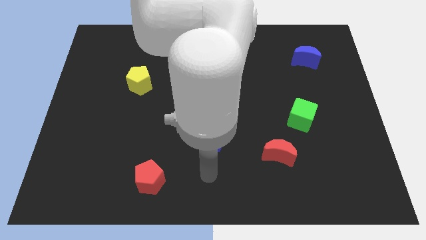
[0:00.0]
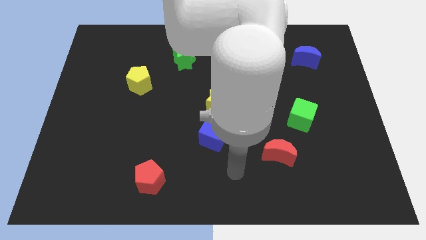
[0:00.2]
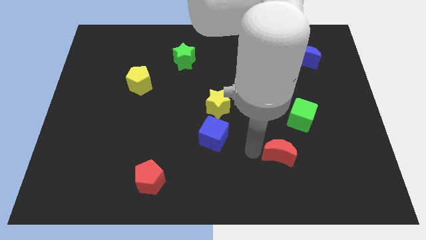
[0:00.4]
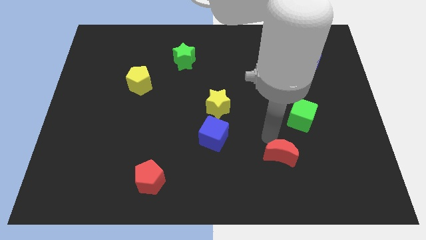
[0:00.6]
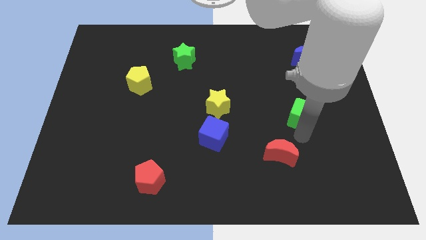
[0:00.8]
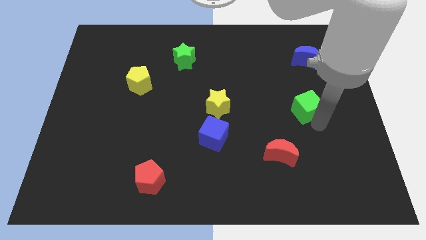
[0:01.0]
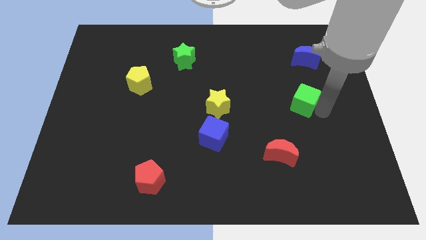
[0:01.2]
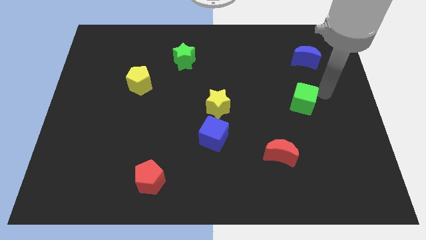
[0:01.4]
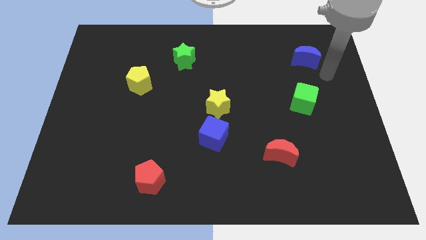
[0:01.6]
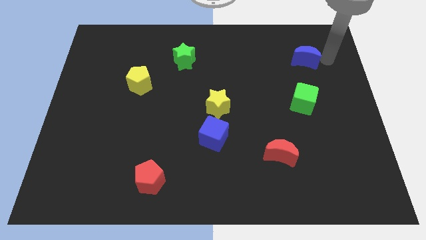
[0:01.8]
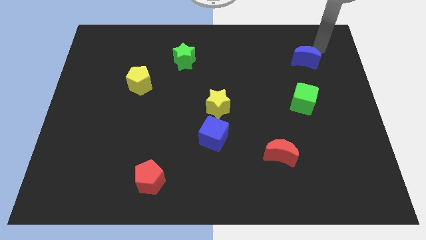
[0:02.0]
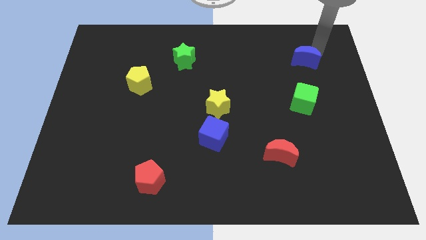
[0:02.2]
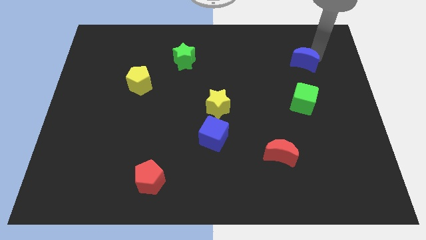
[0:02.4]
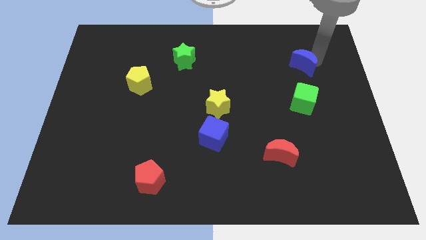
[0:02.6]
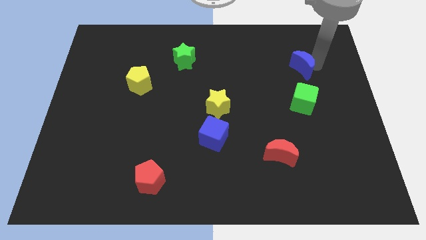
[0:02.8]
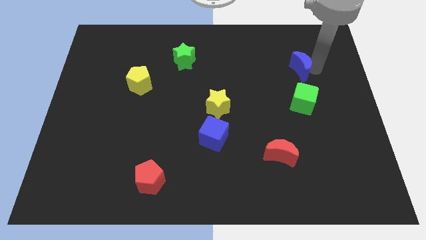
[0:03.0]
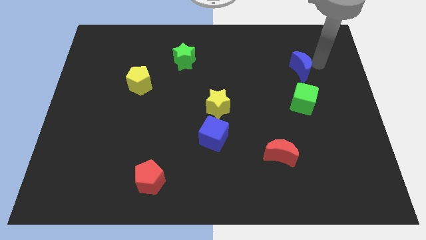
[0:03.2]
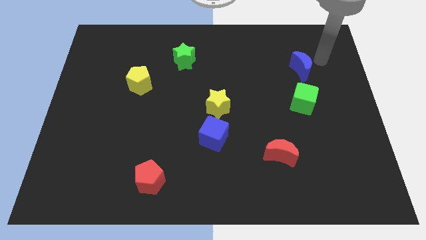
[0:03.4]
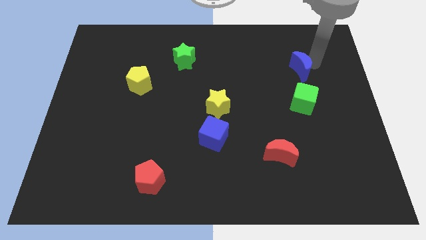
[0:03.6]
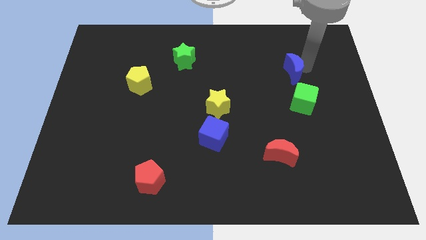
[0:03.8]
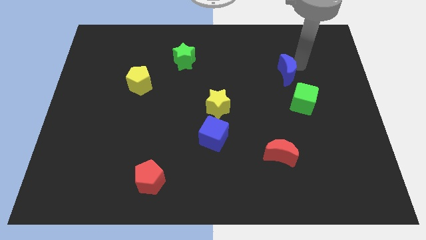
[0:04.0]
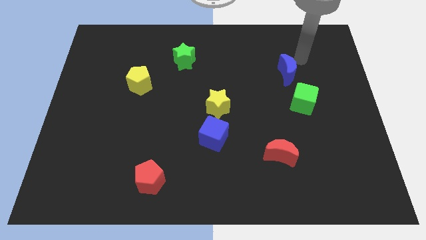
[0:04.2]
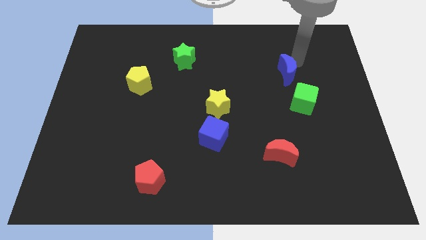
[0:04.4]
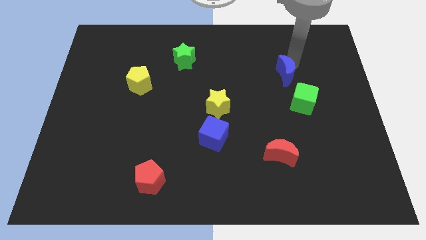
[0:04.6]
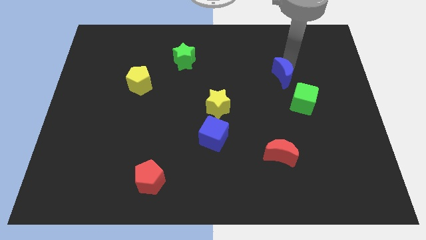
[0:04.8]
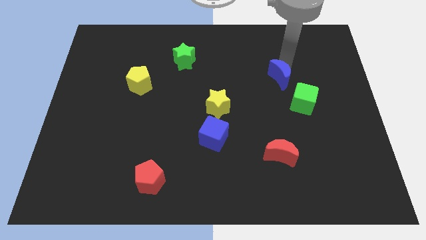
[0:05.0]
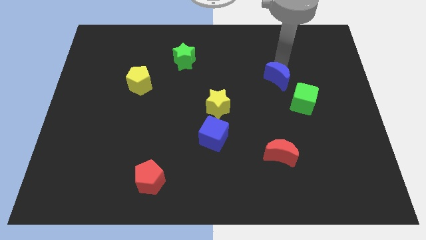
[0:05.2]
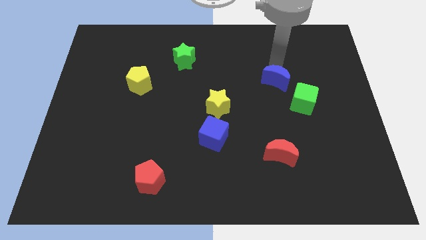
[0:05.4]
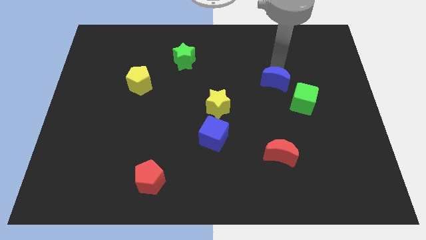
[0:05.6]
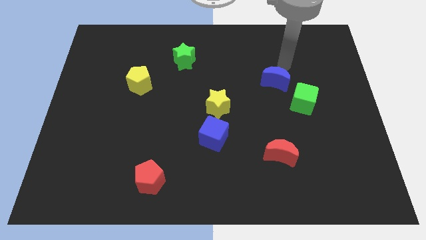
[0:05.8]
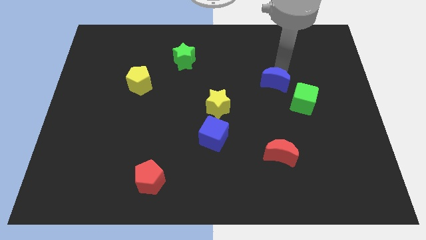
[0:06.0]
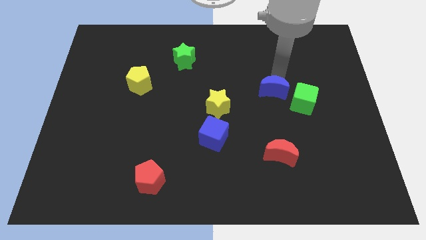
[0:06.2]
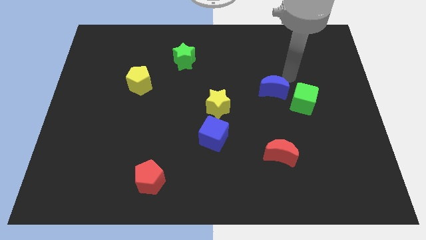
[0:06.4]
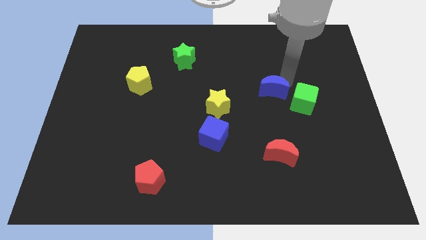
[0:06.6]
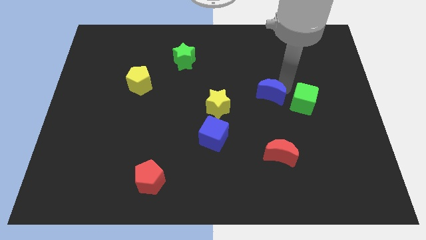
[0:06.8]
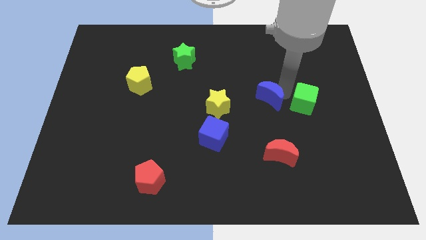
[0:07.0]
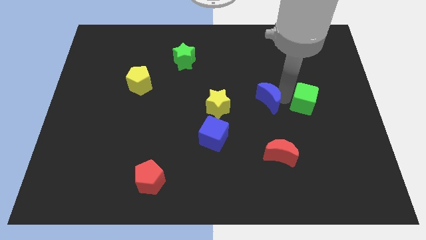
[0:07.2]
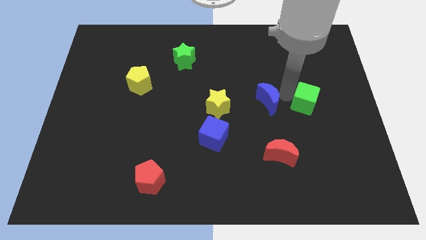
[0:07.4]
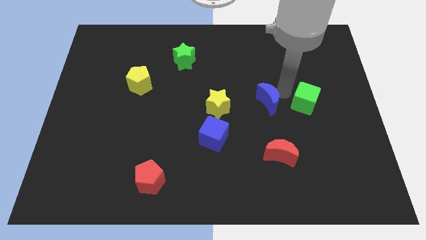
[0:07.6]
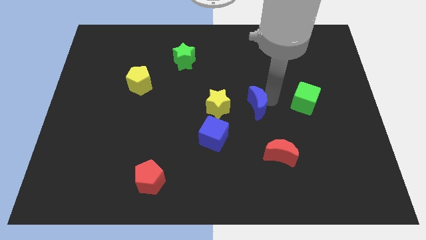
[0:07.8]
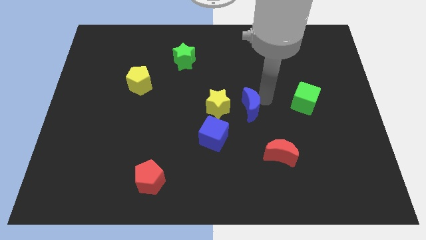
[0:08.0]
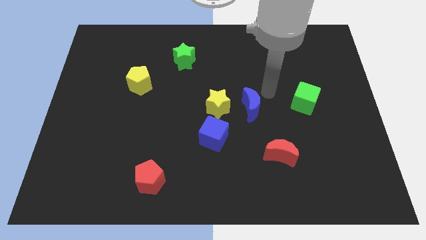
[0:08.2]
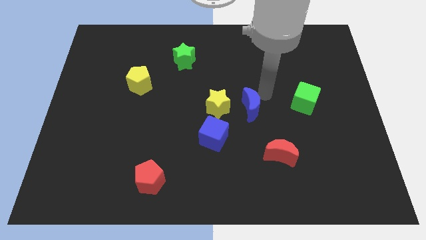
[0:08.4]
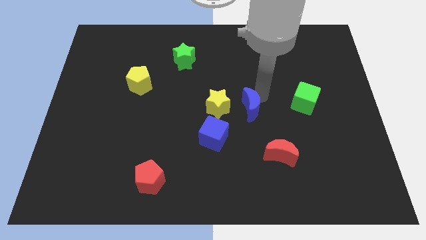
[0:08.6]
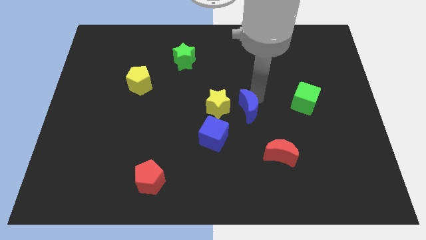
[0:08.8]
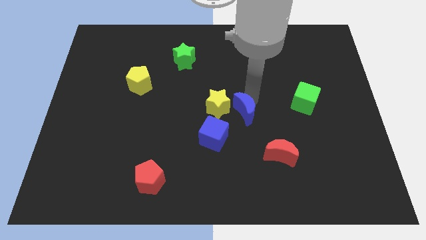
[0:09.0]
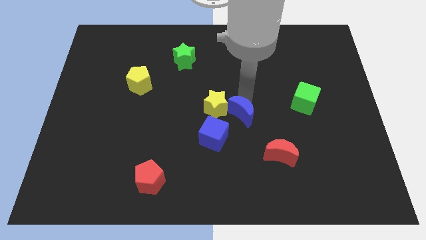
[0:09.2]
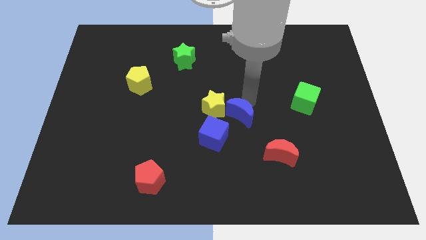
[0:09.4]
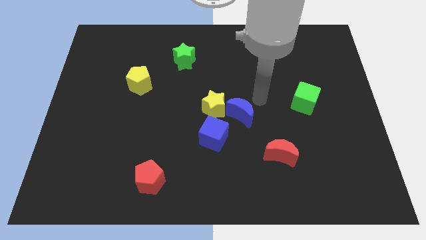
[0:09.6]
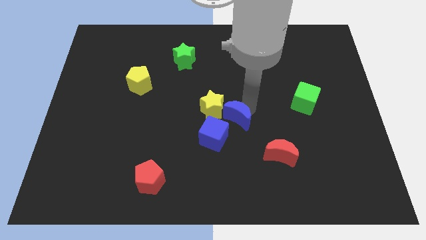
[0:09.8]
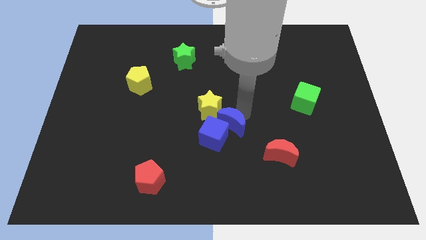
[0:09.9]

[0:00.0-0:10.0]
move the blue moon to the blue cube

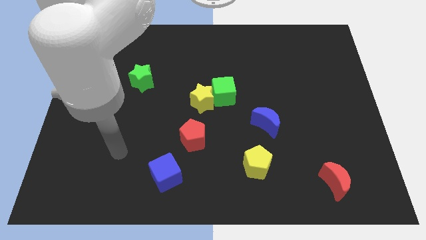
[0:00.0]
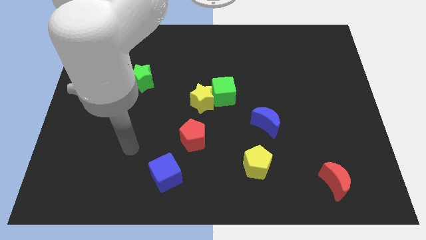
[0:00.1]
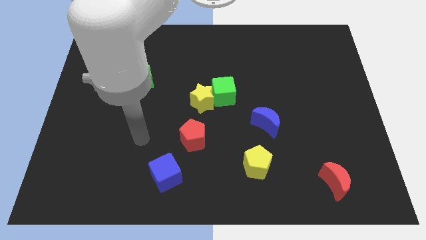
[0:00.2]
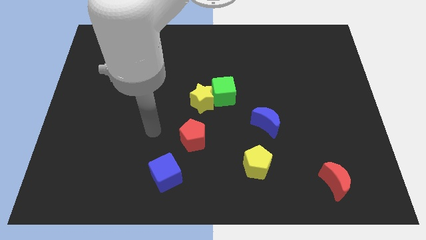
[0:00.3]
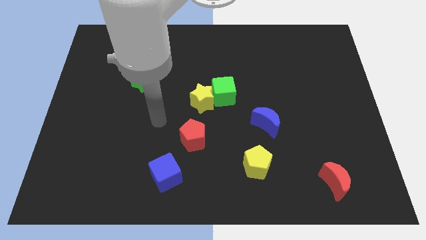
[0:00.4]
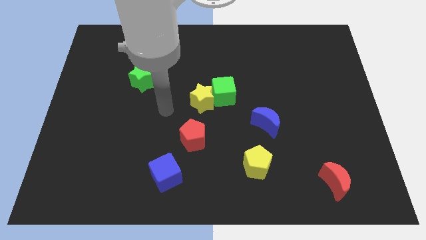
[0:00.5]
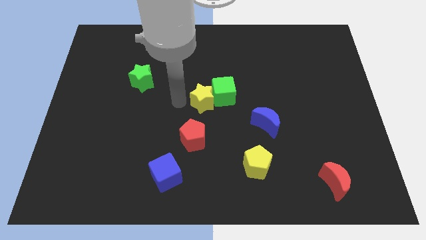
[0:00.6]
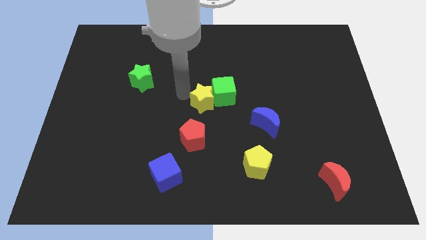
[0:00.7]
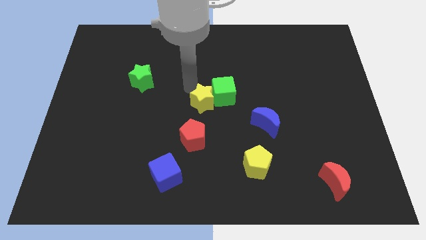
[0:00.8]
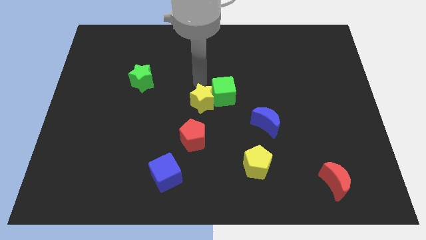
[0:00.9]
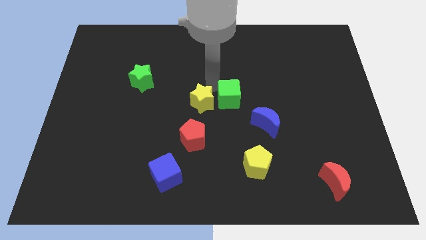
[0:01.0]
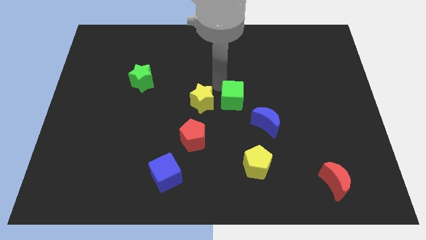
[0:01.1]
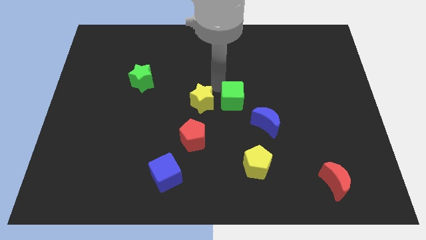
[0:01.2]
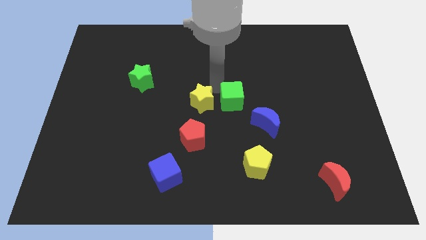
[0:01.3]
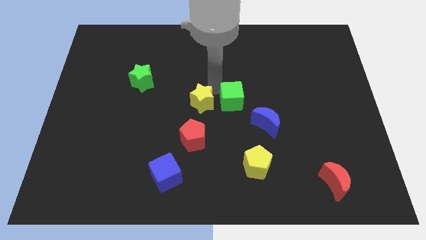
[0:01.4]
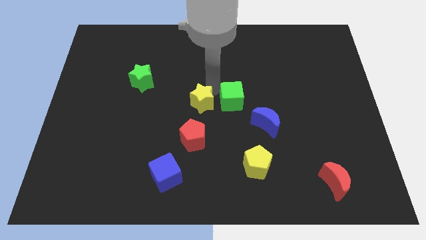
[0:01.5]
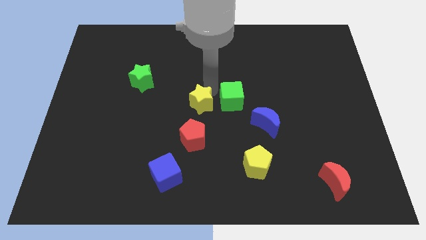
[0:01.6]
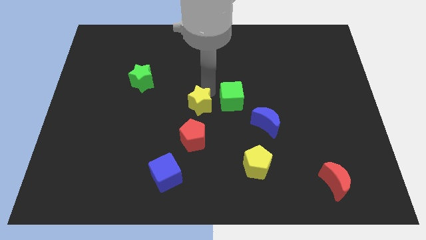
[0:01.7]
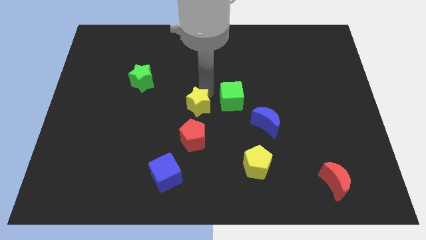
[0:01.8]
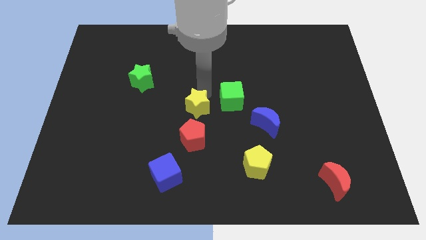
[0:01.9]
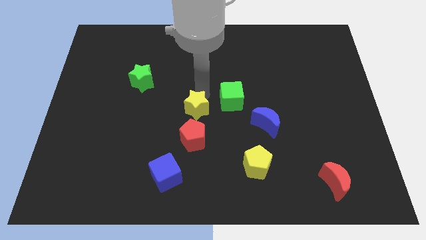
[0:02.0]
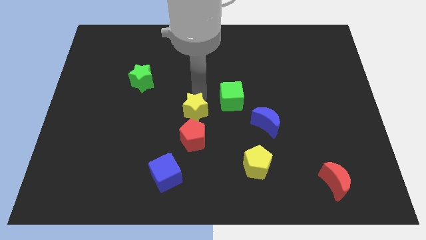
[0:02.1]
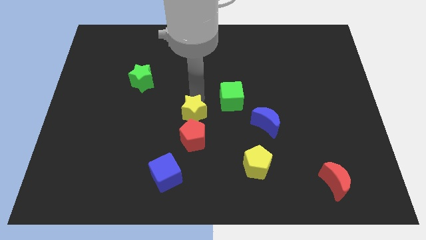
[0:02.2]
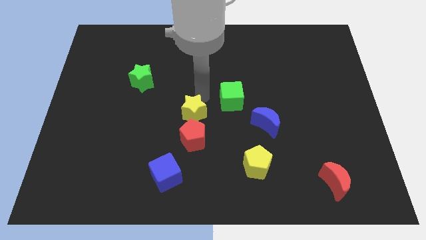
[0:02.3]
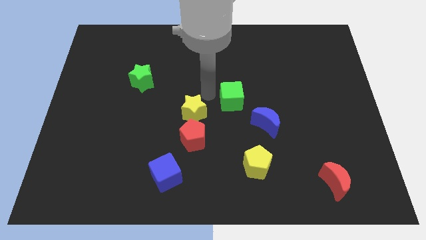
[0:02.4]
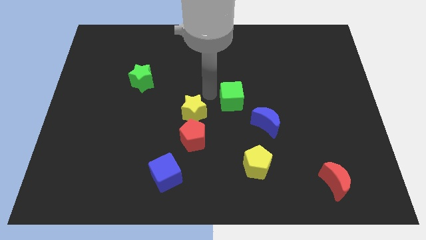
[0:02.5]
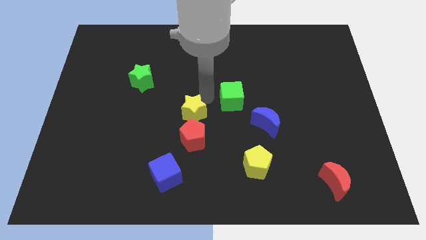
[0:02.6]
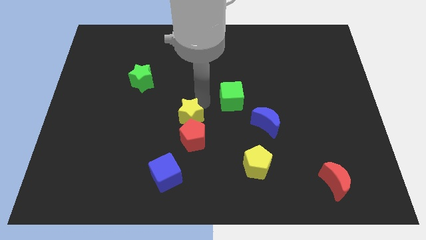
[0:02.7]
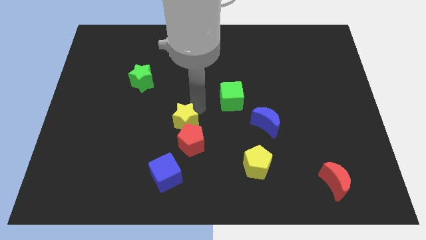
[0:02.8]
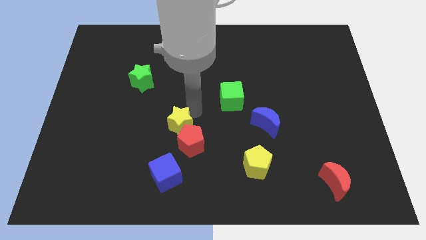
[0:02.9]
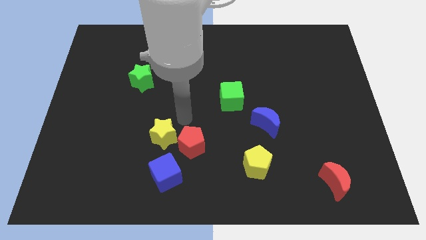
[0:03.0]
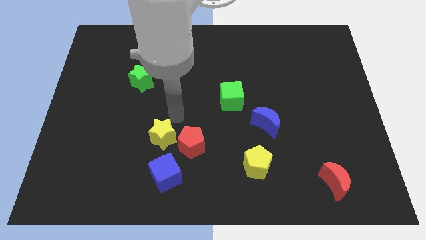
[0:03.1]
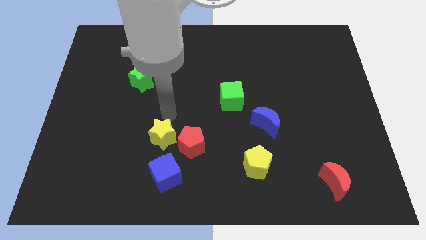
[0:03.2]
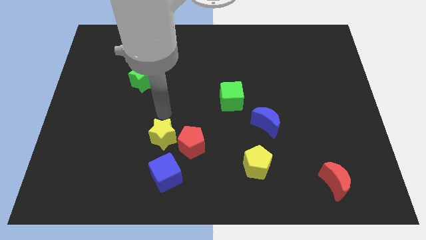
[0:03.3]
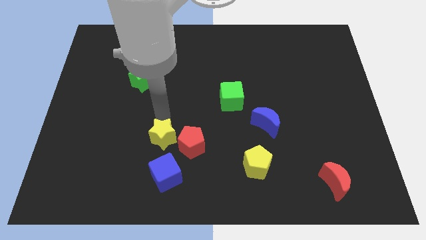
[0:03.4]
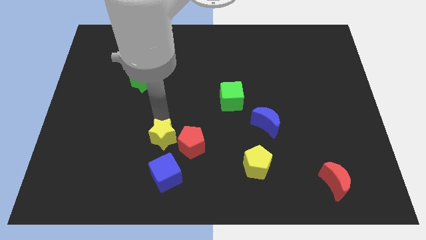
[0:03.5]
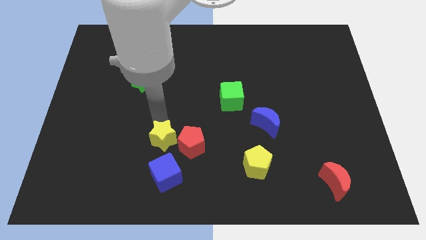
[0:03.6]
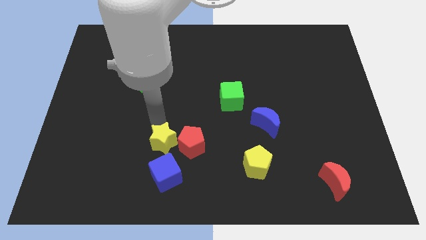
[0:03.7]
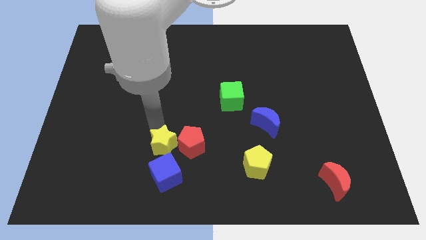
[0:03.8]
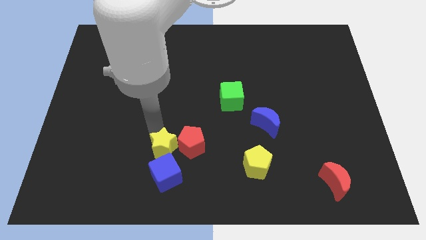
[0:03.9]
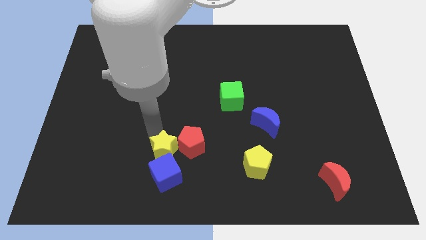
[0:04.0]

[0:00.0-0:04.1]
slide the yellow star close to the blue cube
